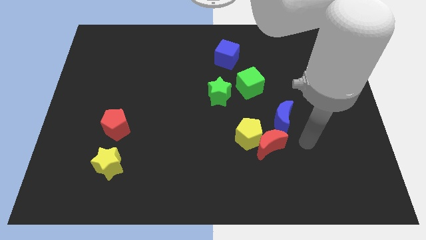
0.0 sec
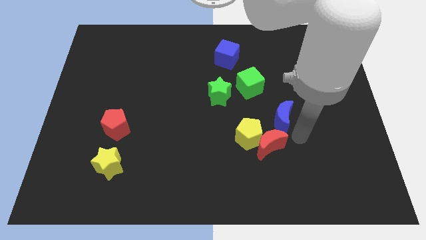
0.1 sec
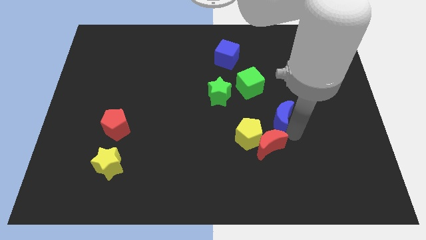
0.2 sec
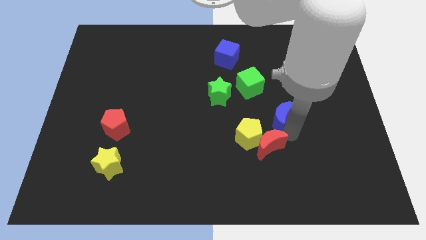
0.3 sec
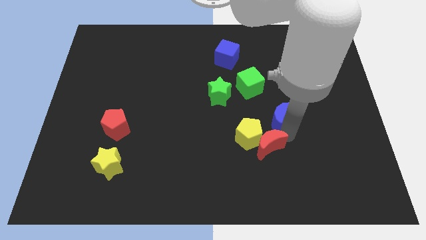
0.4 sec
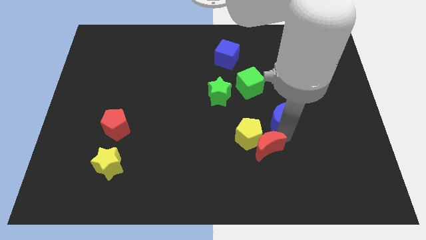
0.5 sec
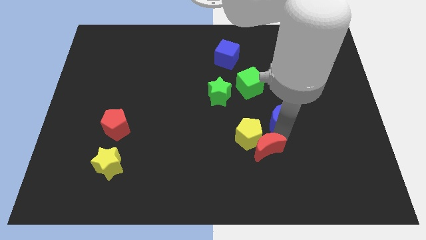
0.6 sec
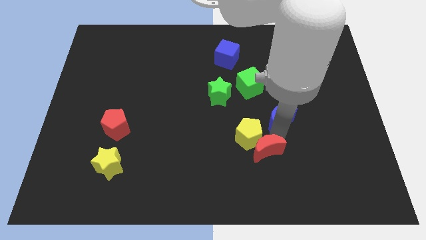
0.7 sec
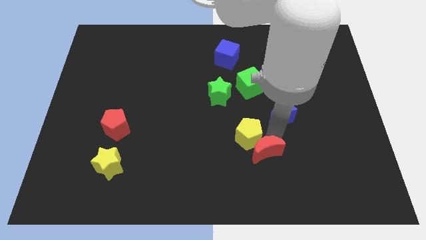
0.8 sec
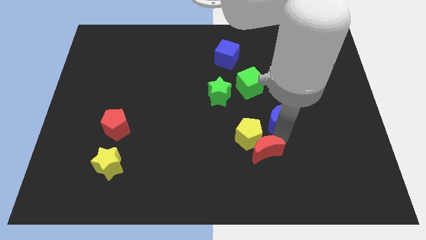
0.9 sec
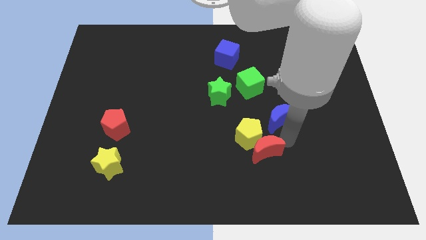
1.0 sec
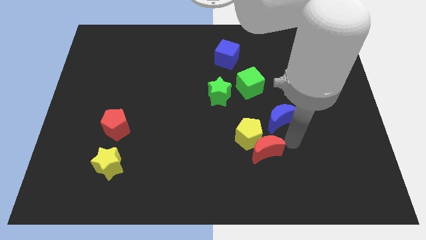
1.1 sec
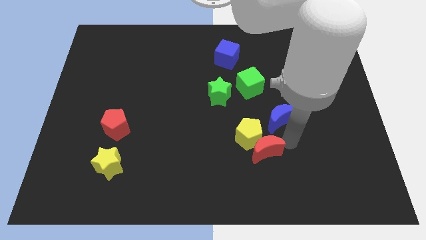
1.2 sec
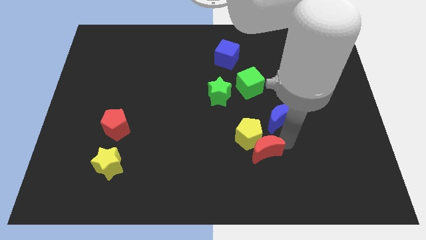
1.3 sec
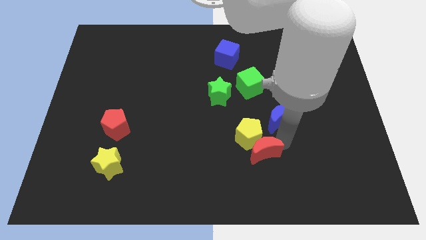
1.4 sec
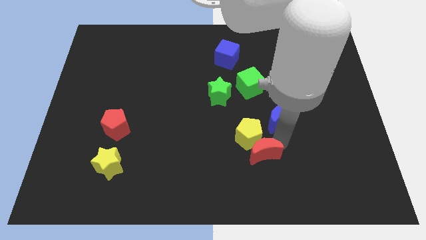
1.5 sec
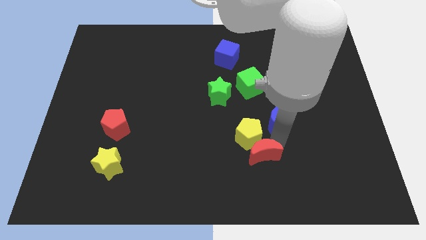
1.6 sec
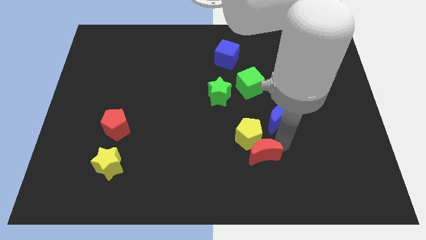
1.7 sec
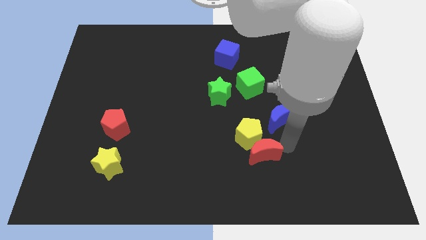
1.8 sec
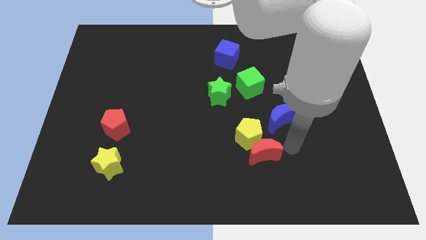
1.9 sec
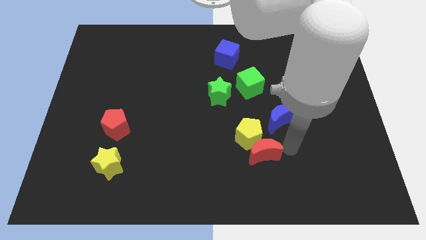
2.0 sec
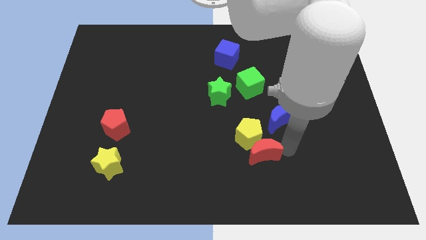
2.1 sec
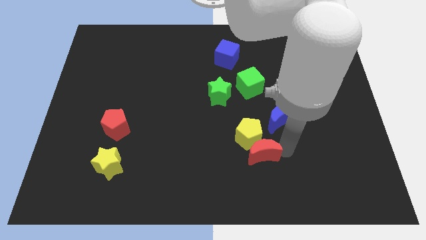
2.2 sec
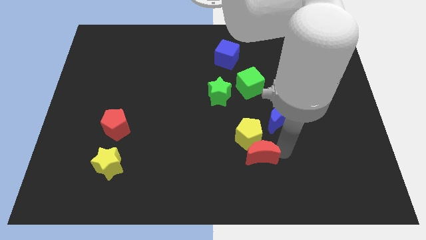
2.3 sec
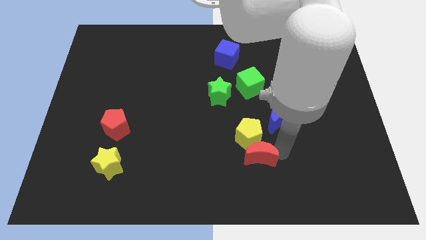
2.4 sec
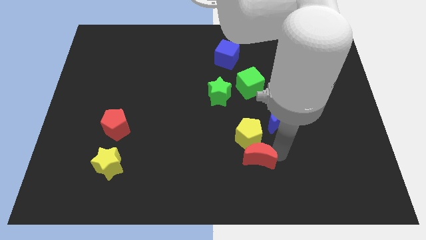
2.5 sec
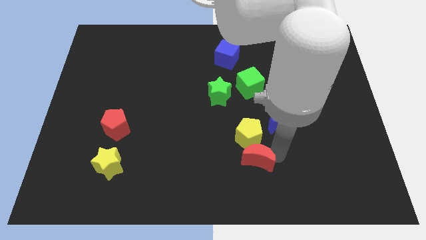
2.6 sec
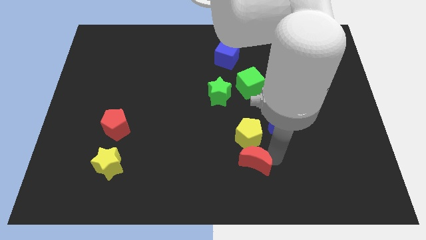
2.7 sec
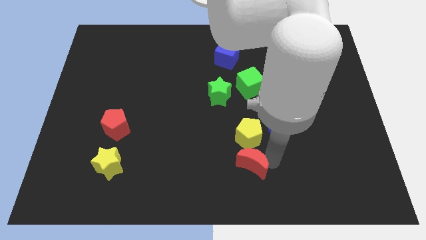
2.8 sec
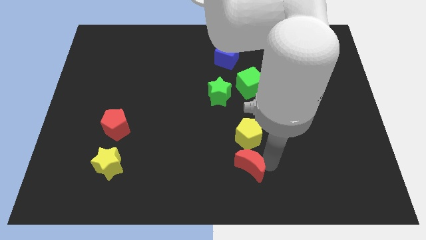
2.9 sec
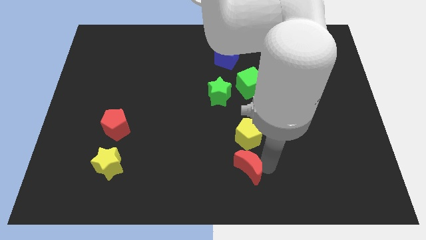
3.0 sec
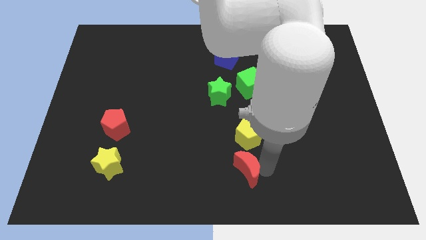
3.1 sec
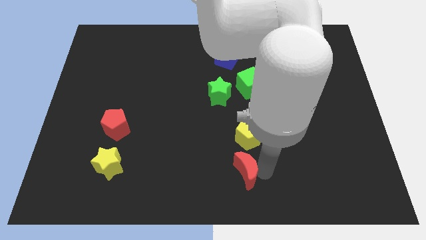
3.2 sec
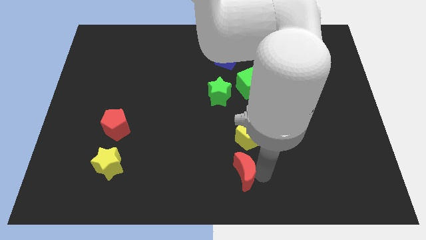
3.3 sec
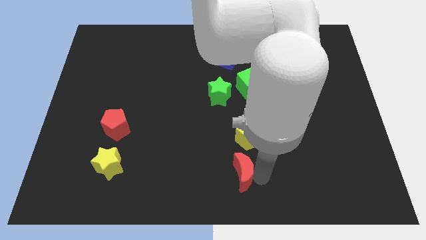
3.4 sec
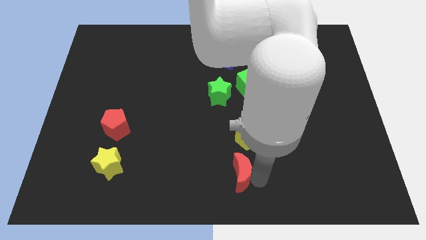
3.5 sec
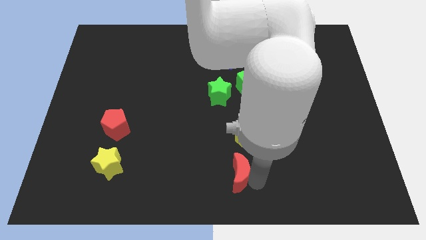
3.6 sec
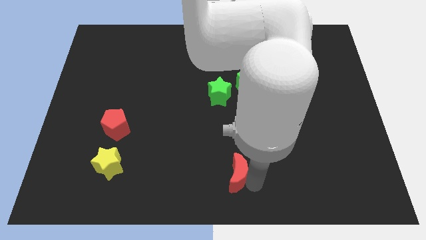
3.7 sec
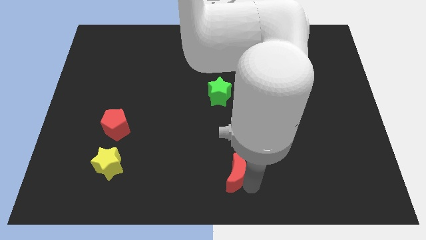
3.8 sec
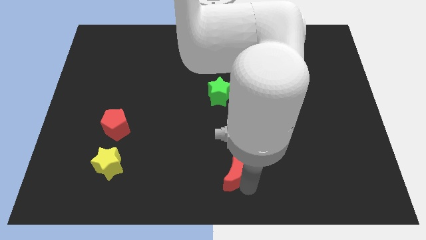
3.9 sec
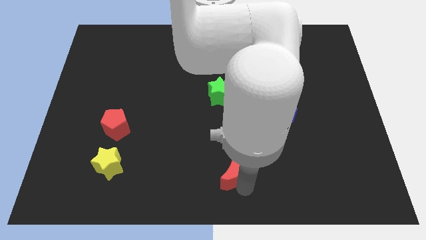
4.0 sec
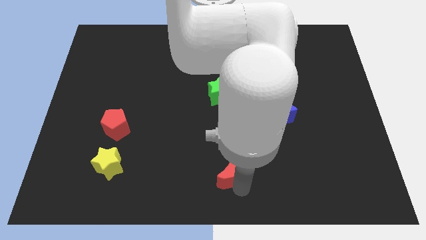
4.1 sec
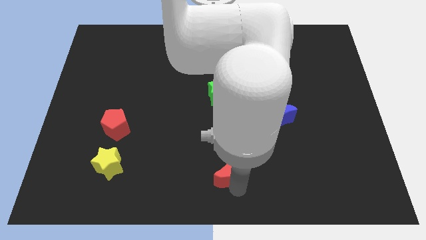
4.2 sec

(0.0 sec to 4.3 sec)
move the red moon a bit left

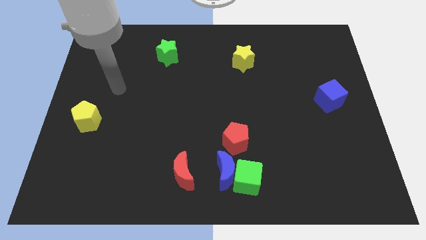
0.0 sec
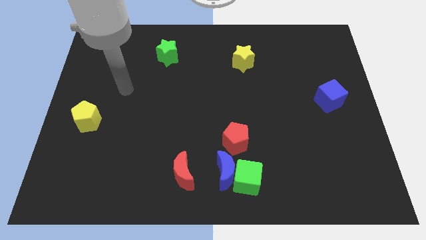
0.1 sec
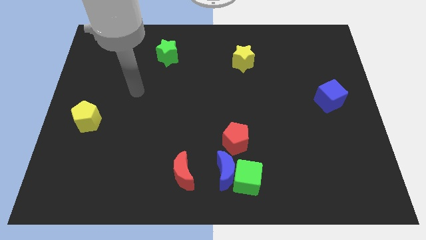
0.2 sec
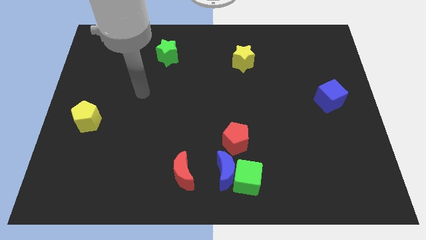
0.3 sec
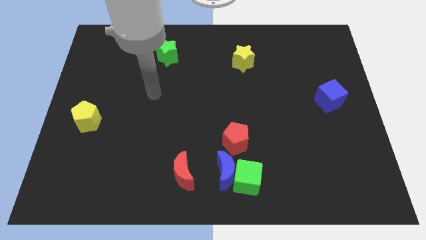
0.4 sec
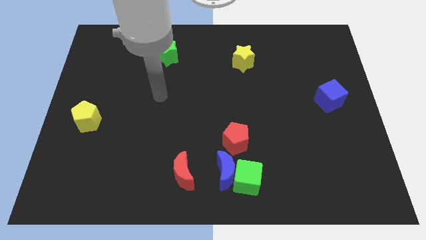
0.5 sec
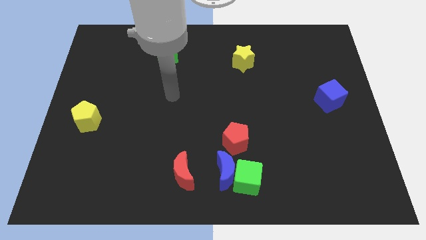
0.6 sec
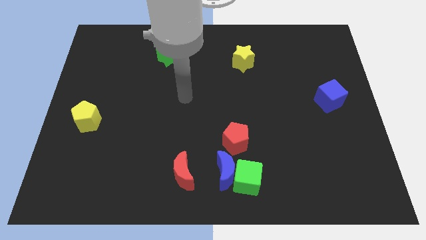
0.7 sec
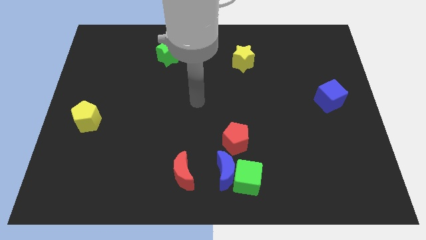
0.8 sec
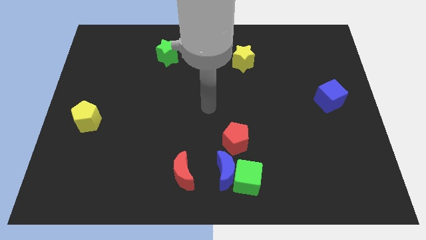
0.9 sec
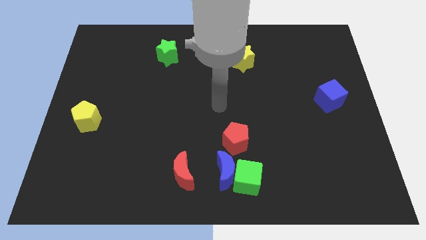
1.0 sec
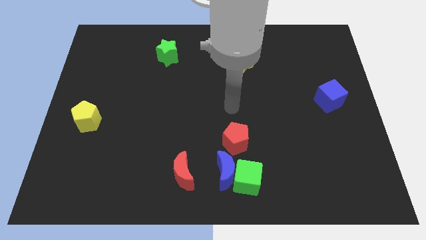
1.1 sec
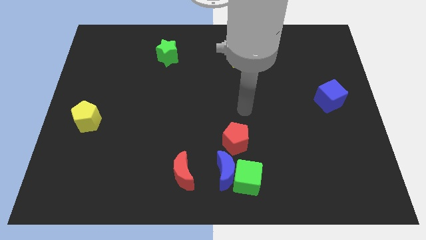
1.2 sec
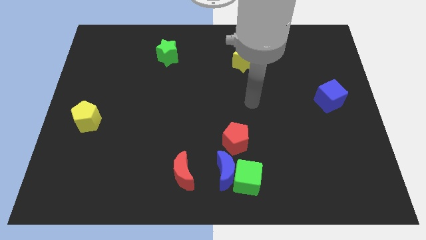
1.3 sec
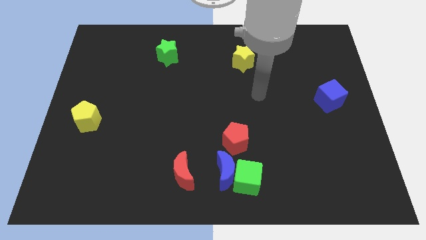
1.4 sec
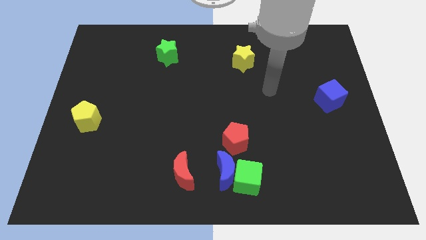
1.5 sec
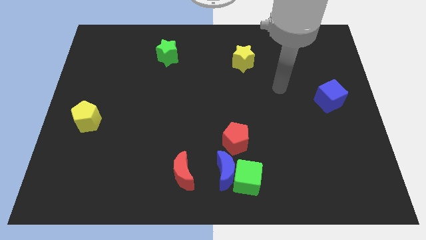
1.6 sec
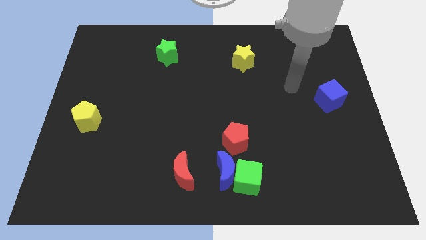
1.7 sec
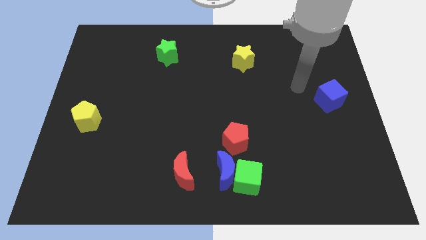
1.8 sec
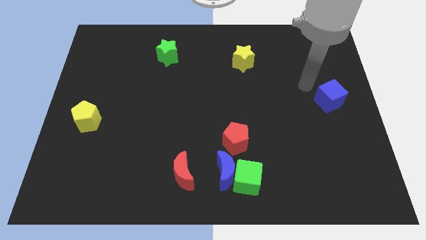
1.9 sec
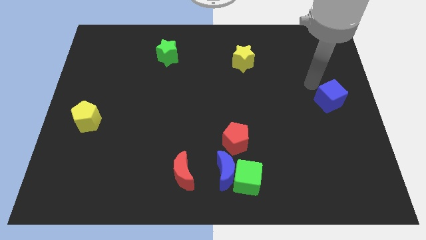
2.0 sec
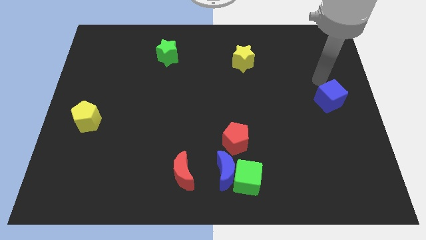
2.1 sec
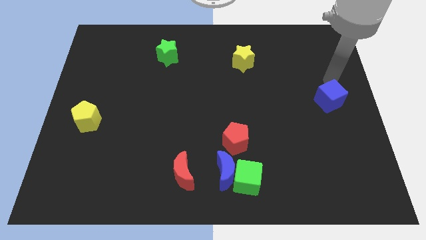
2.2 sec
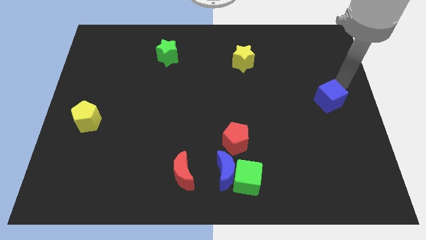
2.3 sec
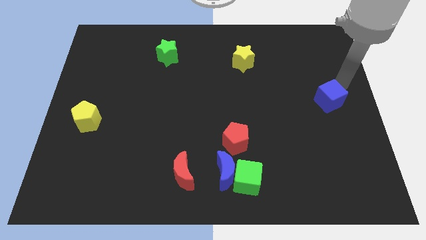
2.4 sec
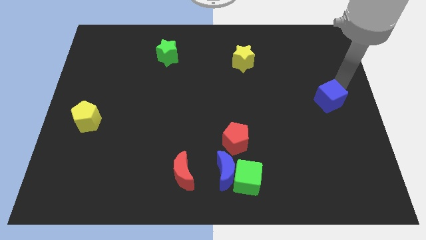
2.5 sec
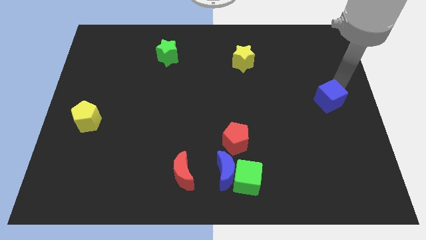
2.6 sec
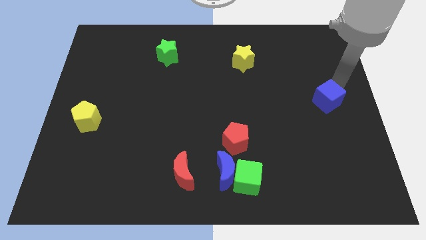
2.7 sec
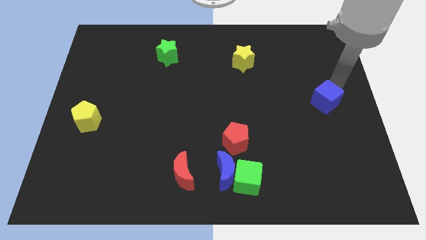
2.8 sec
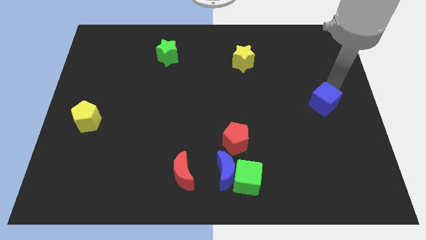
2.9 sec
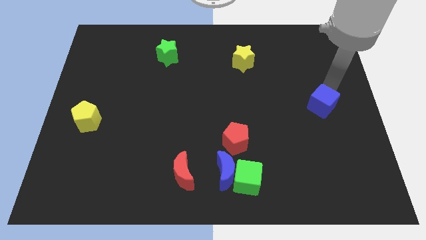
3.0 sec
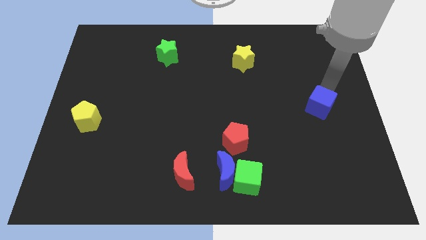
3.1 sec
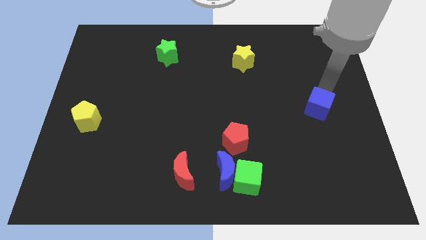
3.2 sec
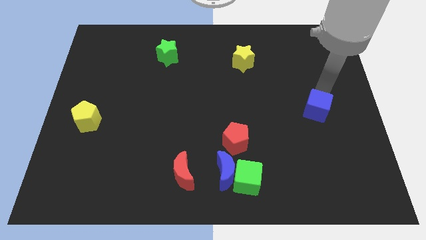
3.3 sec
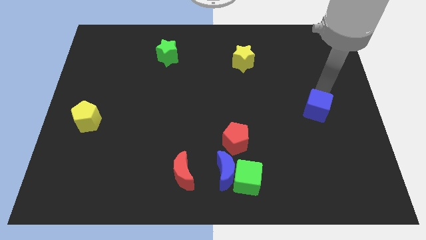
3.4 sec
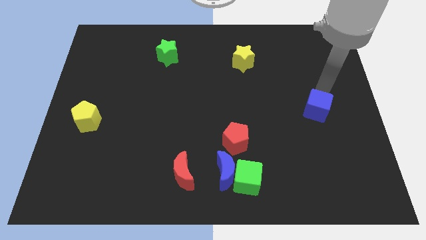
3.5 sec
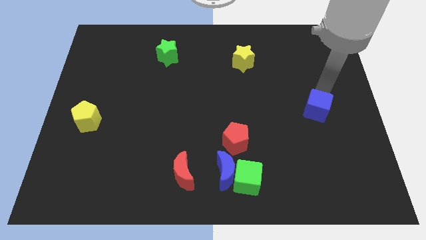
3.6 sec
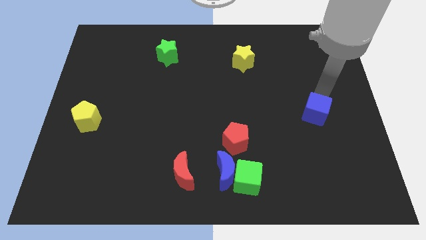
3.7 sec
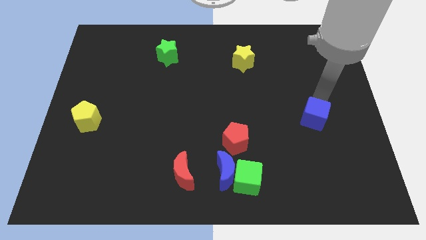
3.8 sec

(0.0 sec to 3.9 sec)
slide the blue cube diagonally down and to the left somewhat

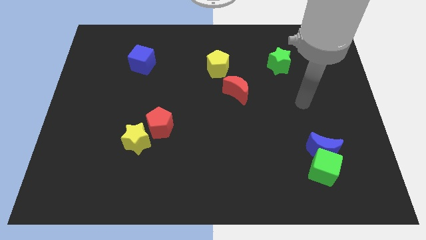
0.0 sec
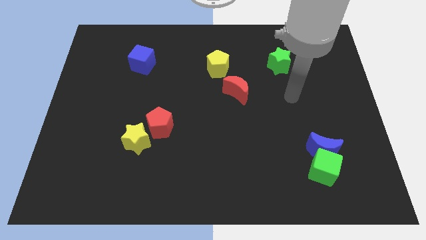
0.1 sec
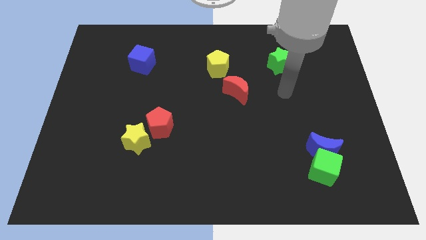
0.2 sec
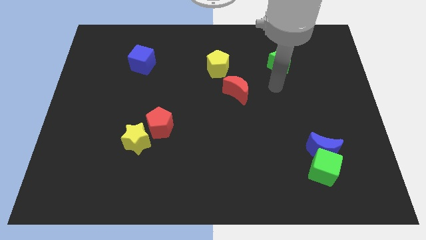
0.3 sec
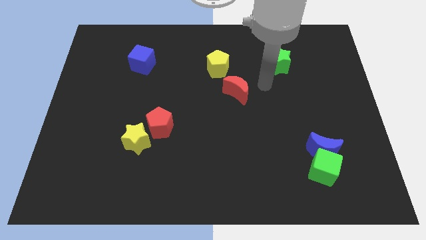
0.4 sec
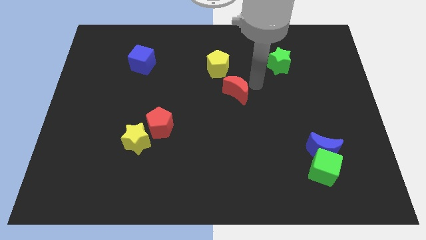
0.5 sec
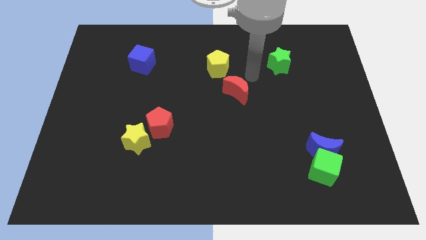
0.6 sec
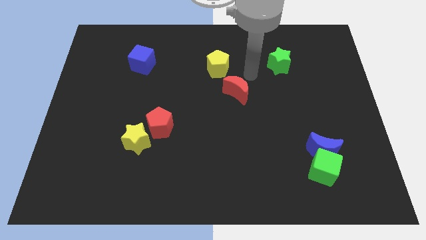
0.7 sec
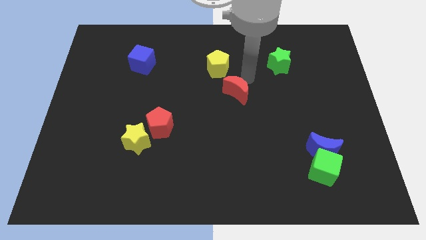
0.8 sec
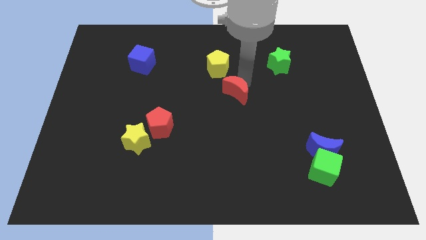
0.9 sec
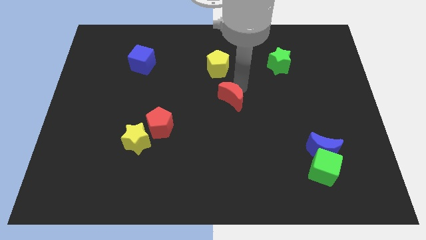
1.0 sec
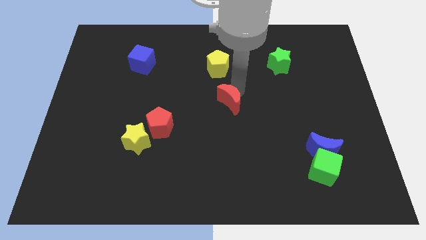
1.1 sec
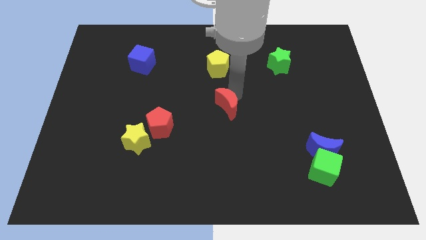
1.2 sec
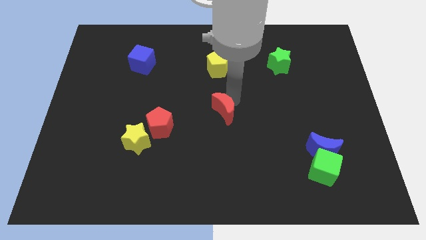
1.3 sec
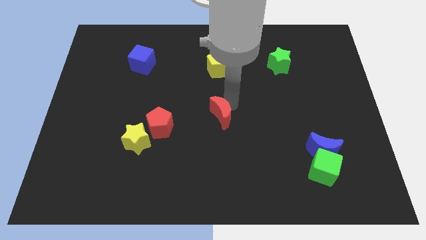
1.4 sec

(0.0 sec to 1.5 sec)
slide the red moon downwards and then to the left a little
